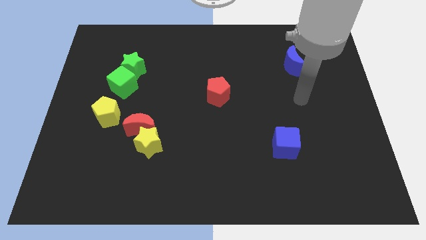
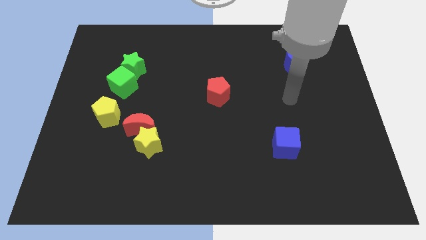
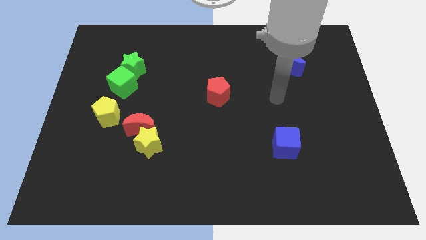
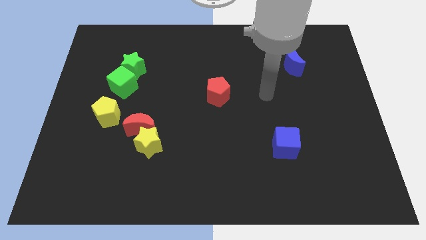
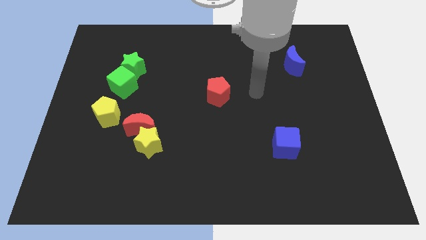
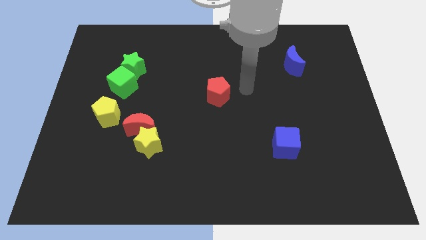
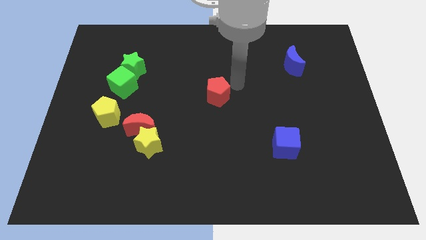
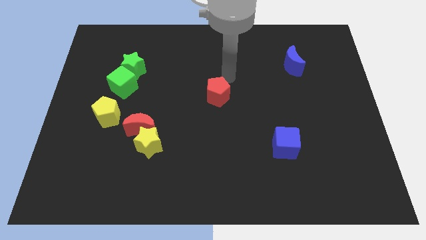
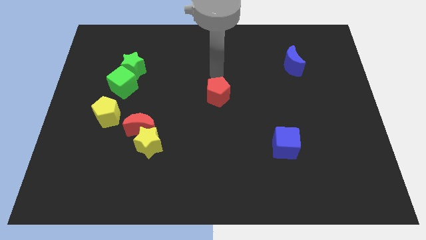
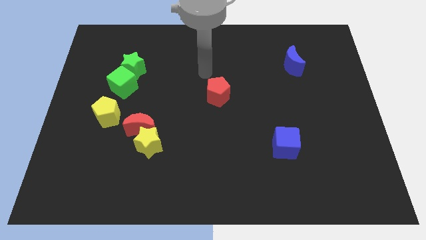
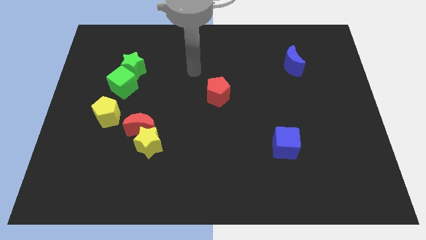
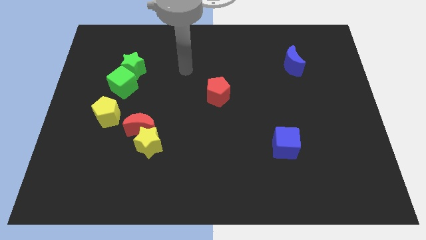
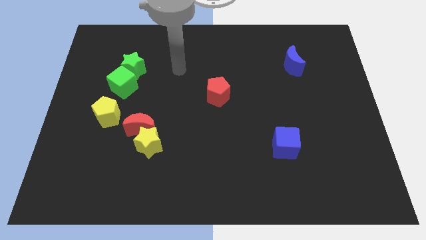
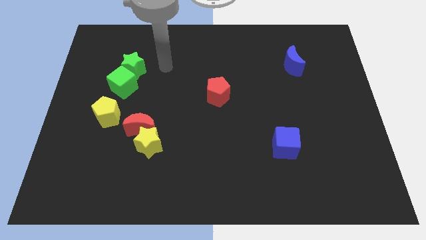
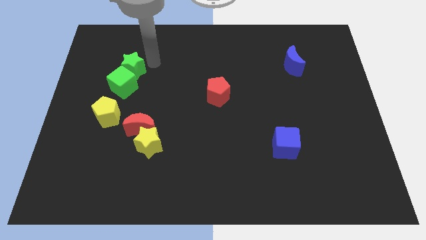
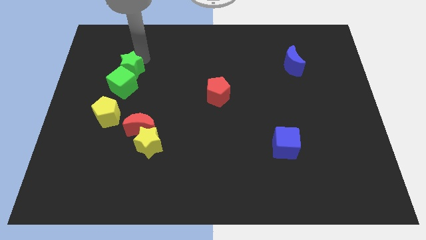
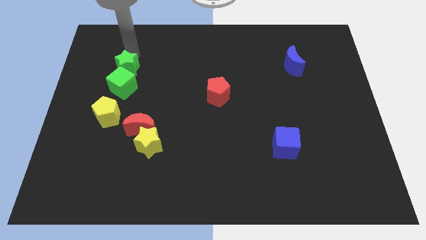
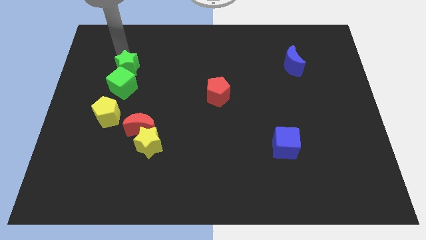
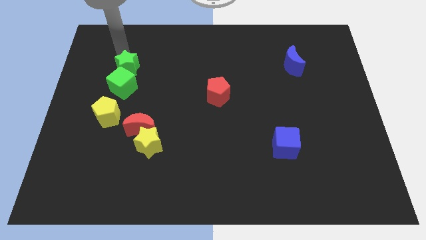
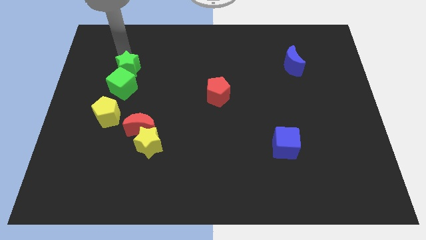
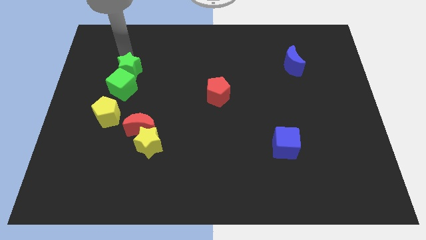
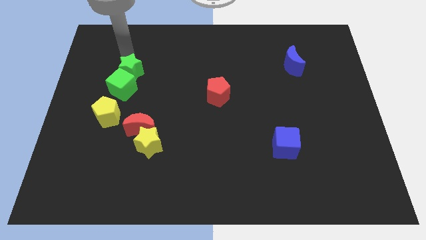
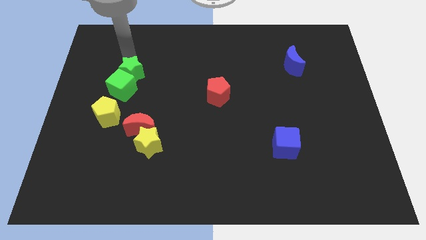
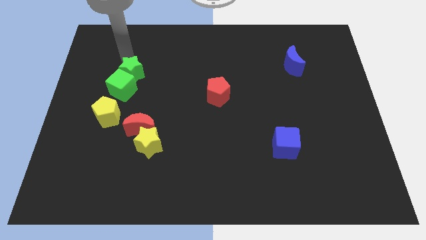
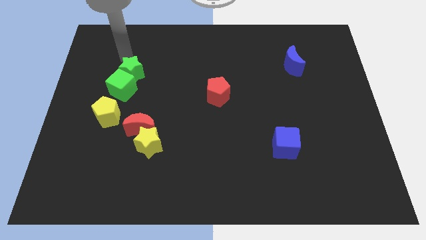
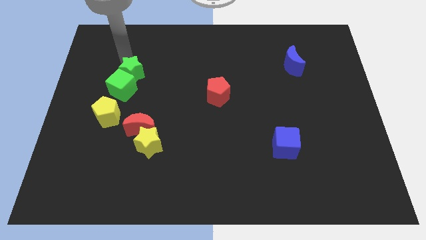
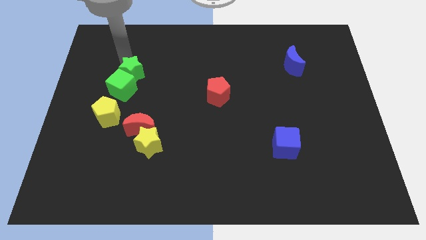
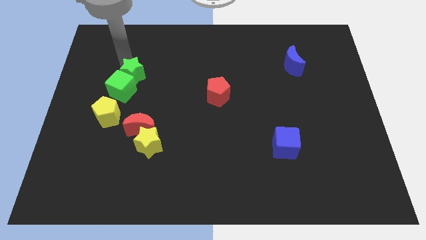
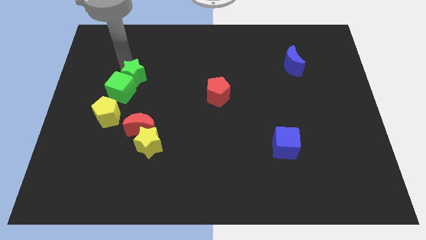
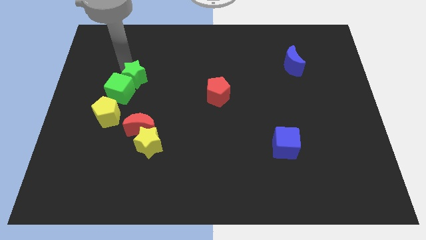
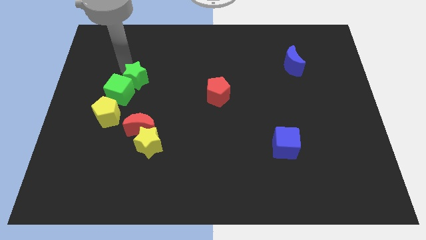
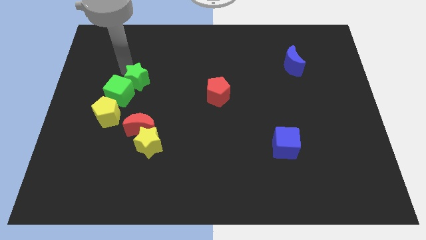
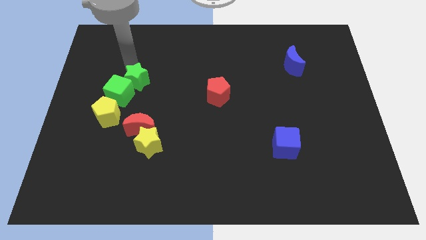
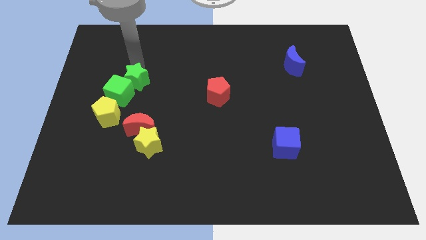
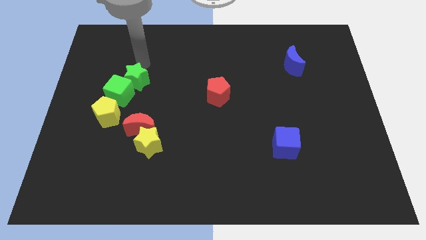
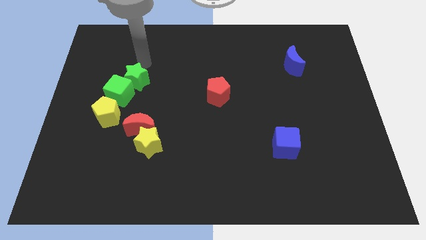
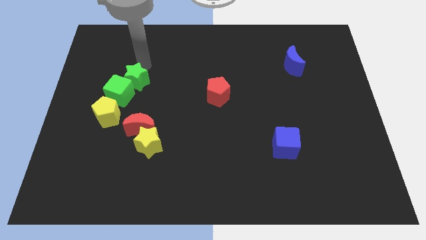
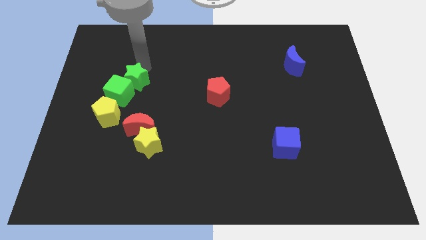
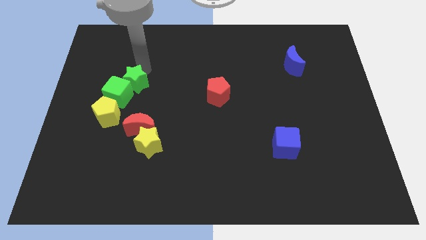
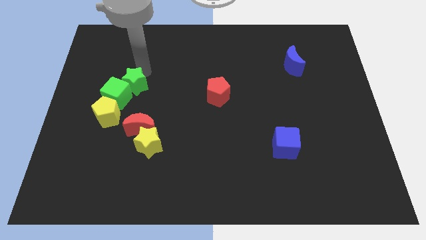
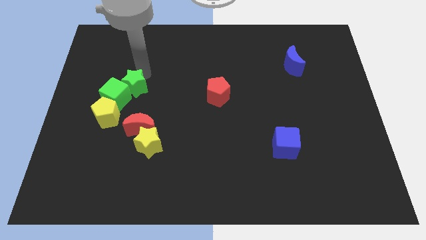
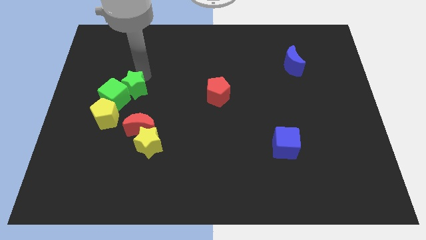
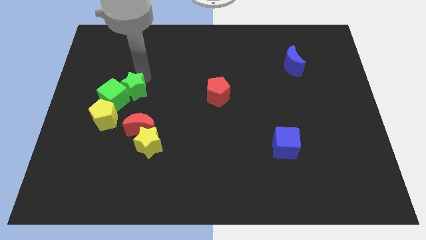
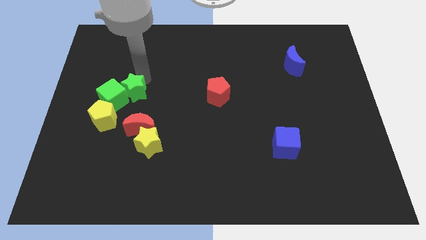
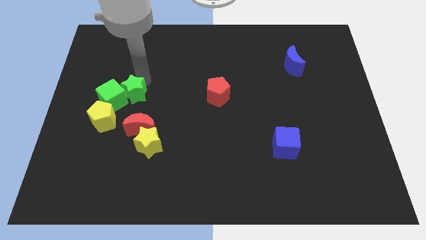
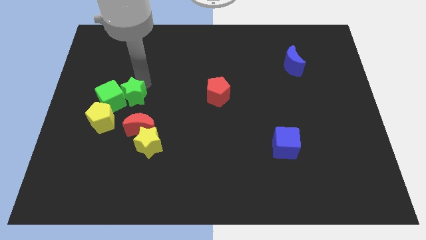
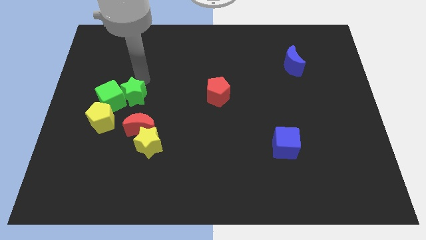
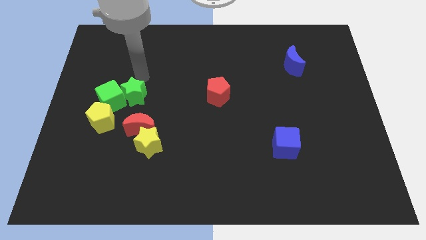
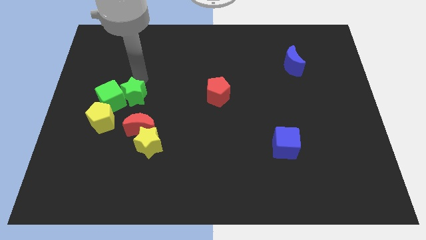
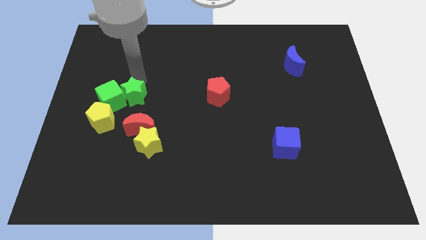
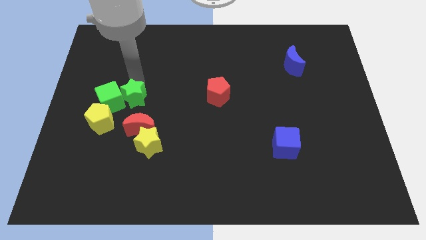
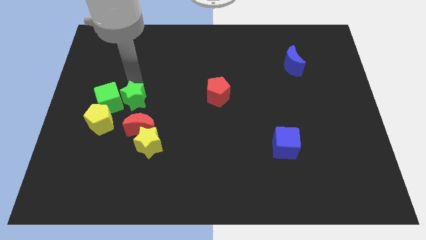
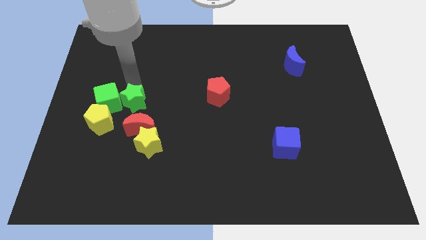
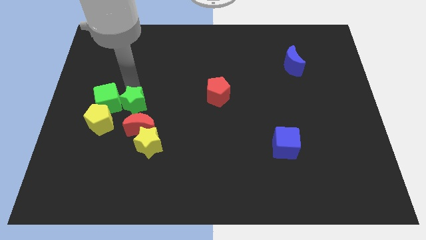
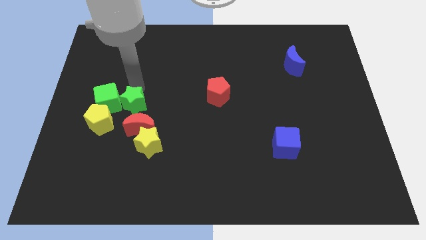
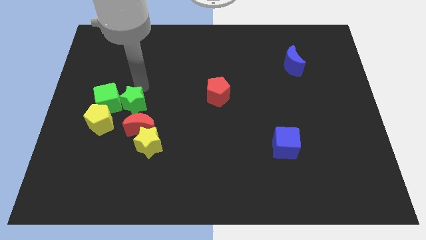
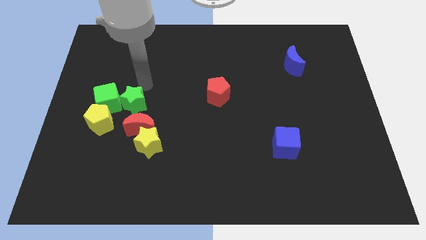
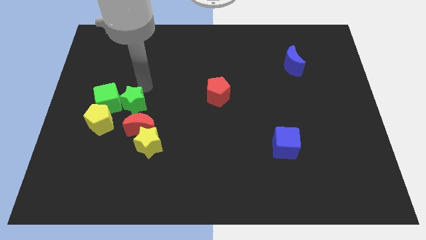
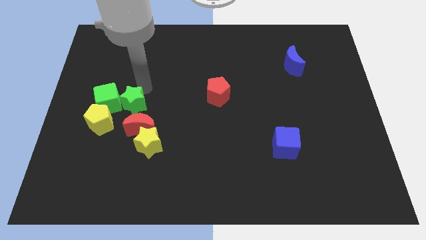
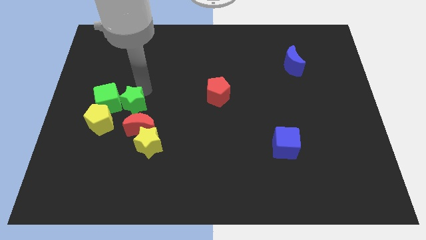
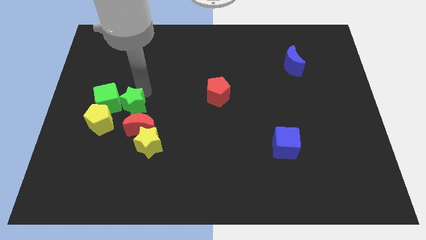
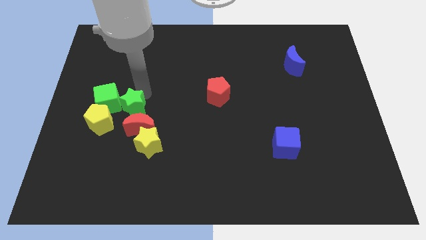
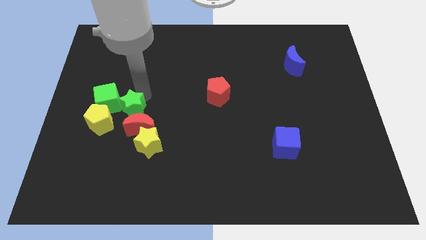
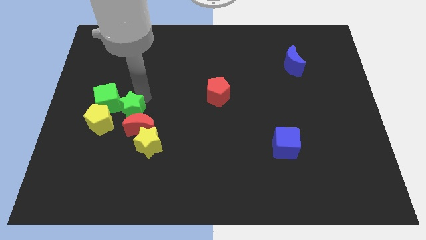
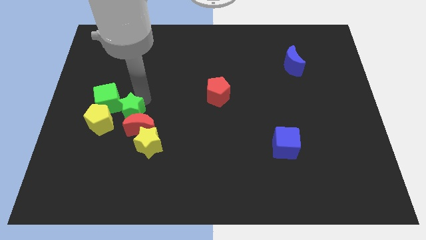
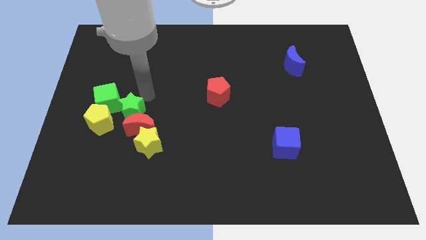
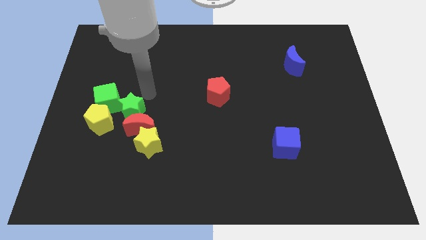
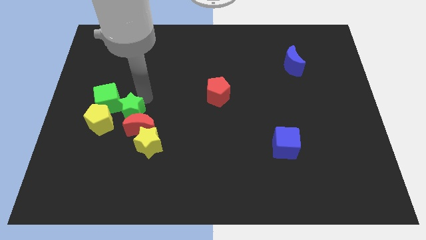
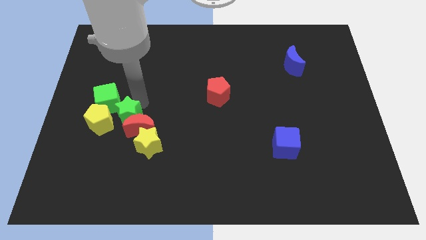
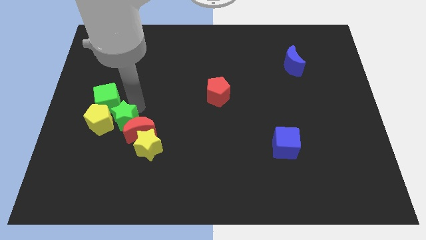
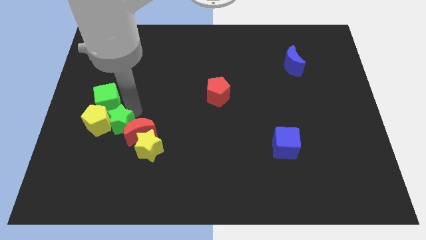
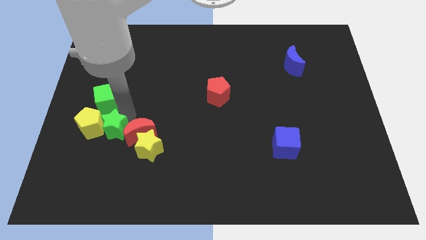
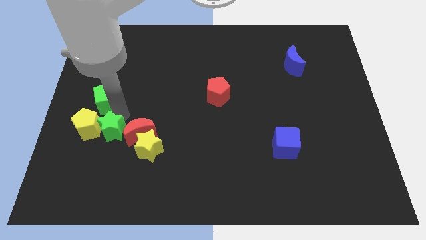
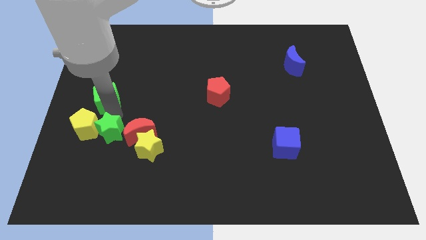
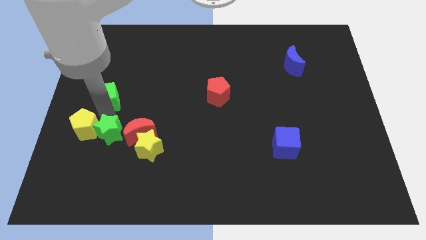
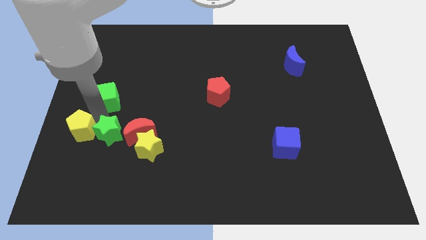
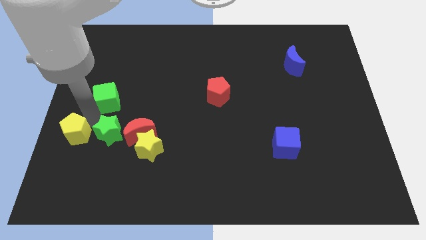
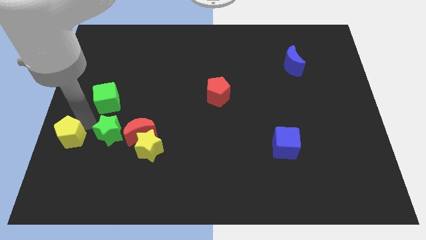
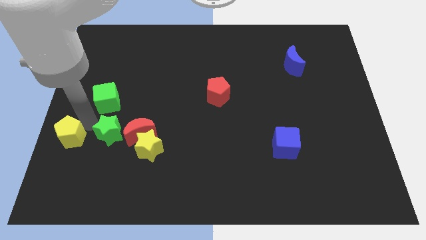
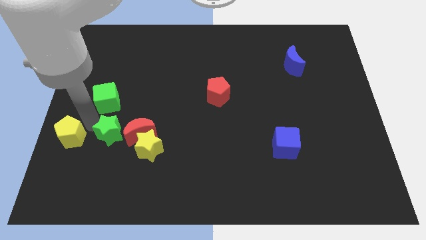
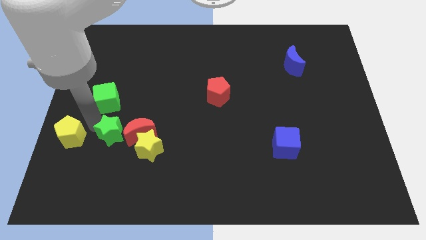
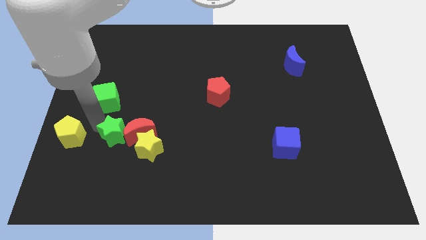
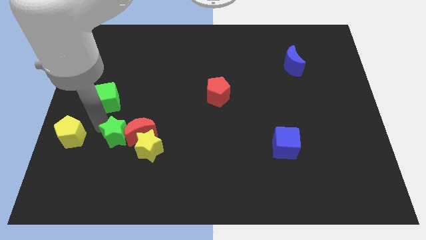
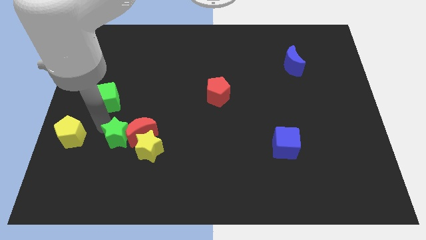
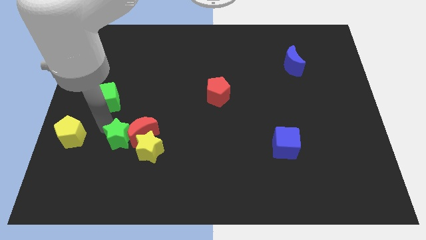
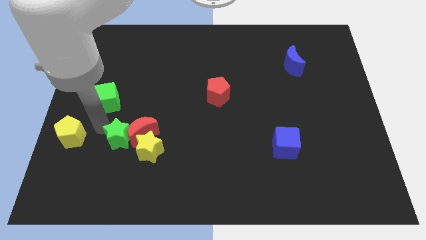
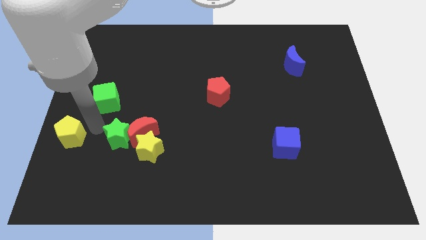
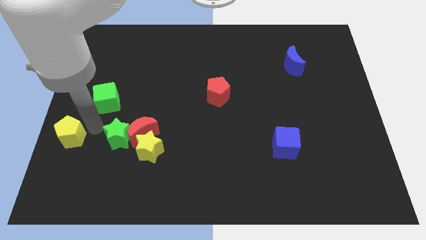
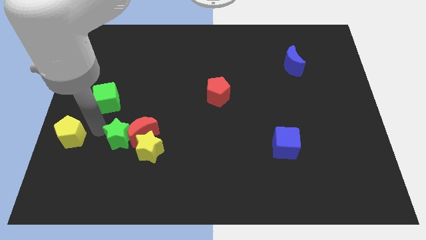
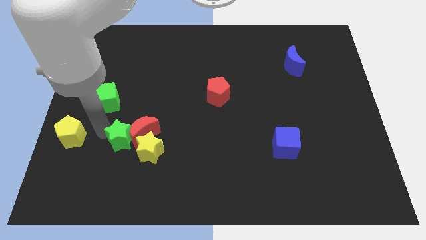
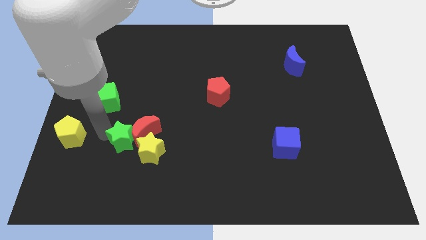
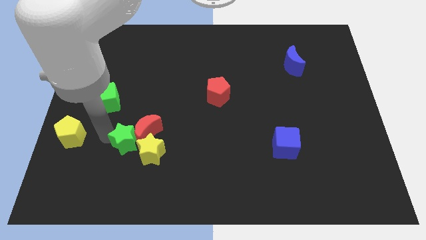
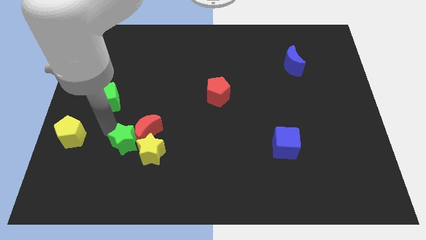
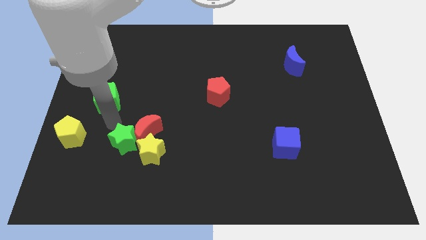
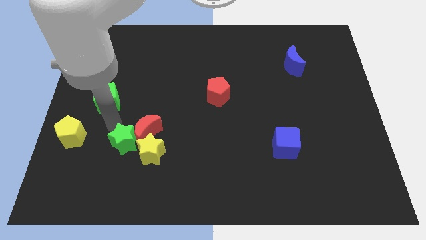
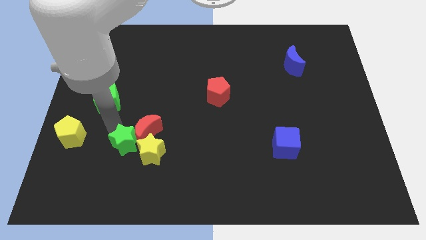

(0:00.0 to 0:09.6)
move the green star to the bottom of the red moon
